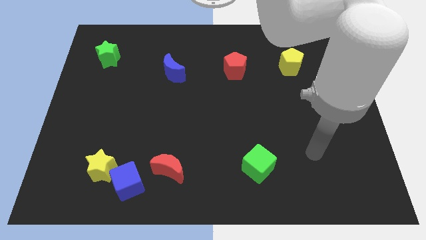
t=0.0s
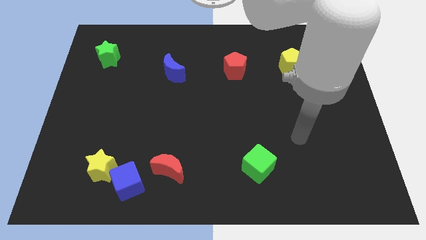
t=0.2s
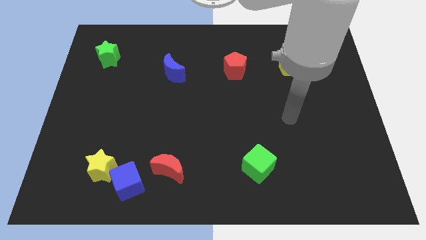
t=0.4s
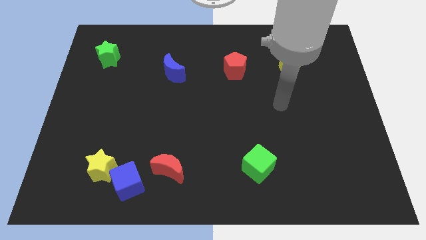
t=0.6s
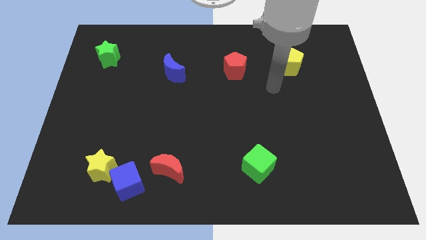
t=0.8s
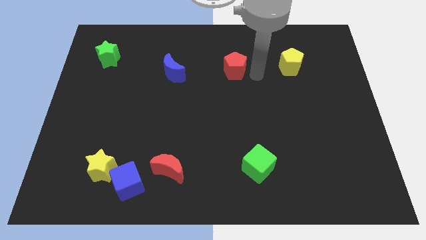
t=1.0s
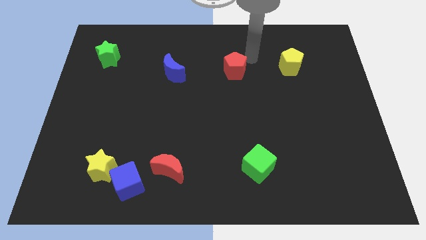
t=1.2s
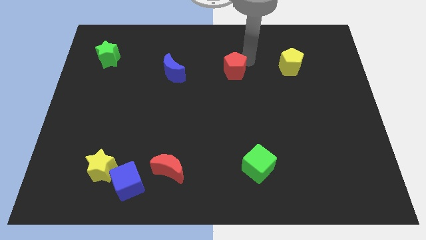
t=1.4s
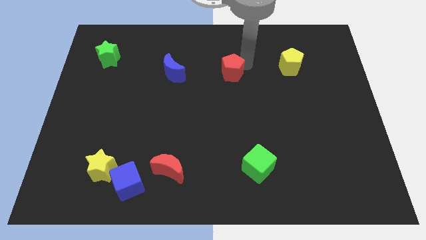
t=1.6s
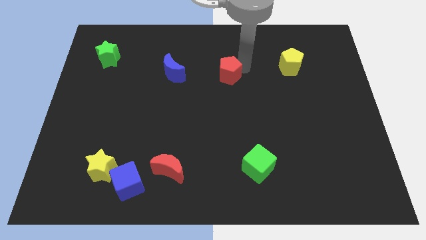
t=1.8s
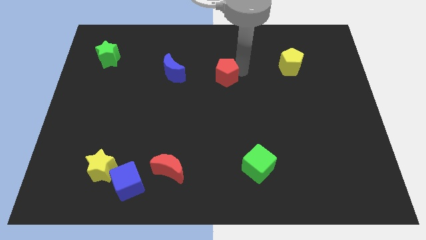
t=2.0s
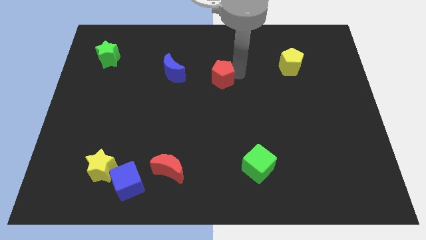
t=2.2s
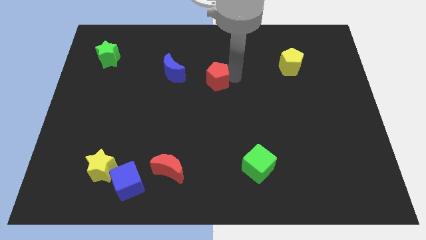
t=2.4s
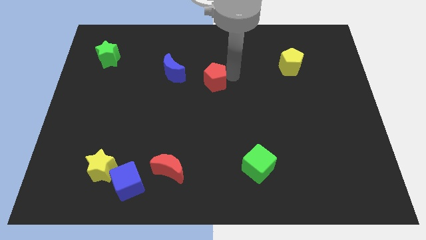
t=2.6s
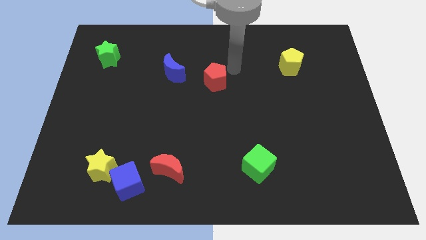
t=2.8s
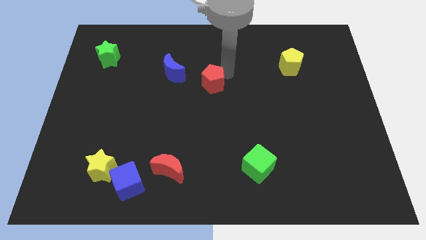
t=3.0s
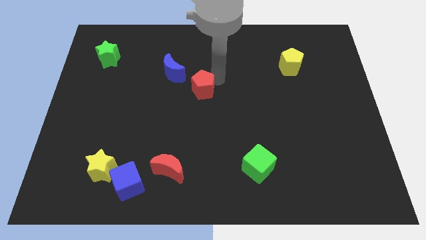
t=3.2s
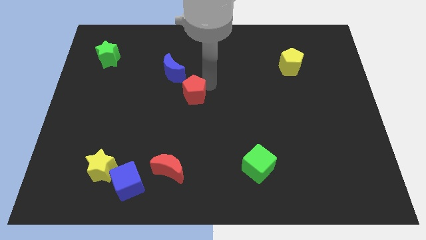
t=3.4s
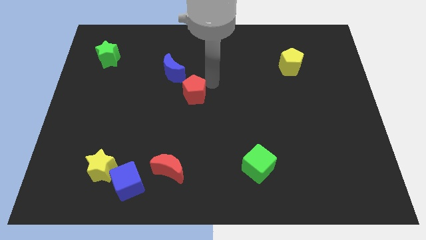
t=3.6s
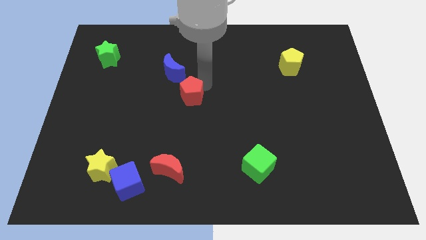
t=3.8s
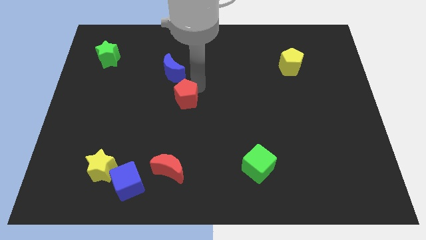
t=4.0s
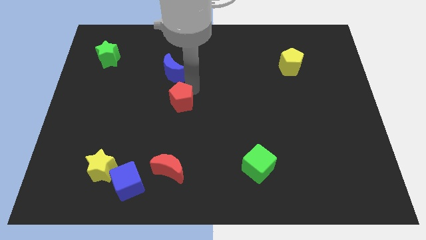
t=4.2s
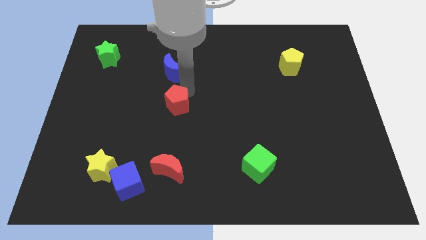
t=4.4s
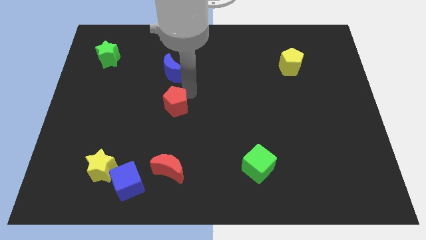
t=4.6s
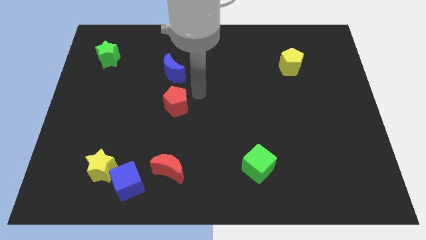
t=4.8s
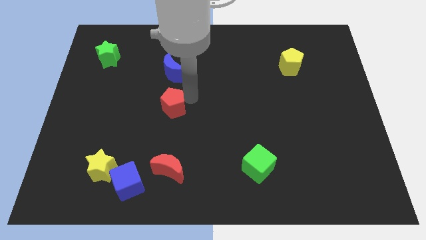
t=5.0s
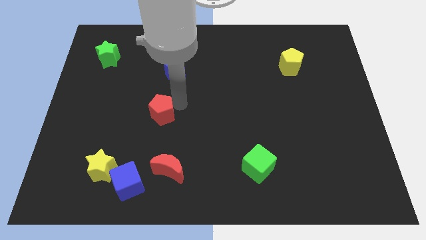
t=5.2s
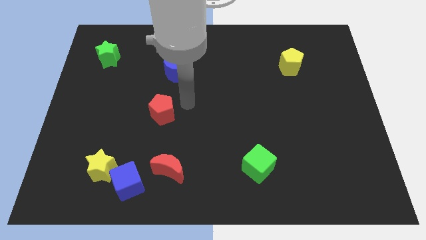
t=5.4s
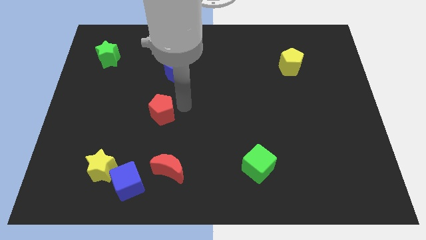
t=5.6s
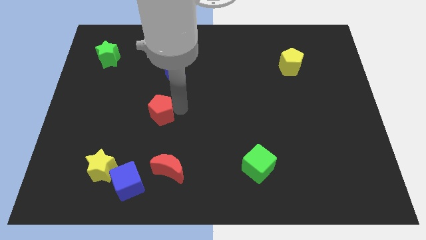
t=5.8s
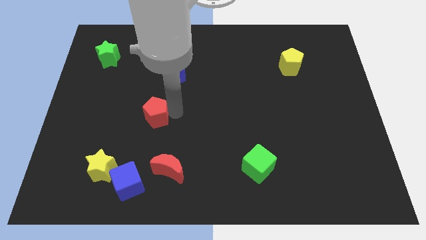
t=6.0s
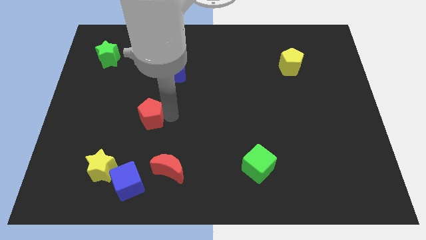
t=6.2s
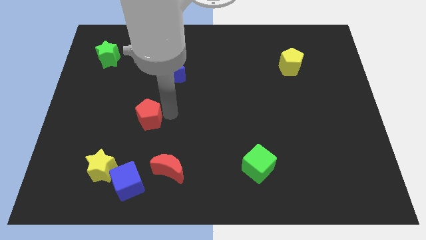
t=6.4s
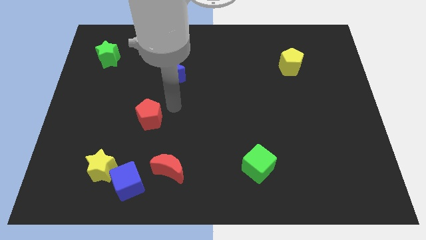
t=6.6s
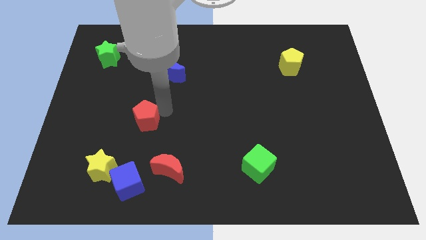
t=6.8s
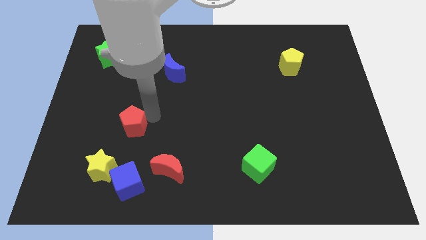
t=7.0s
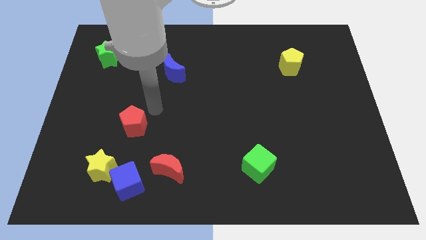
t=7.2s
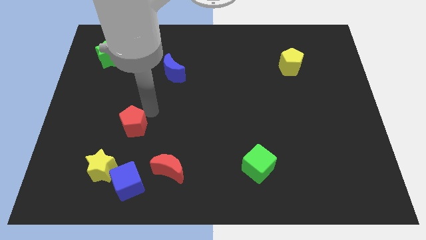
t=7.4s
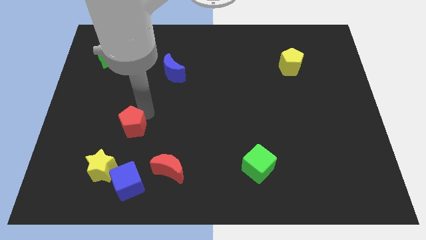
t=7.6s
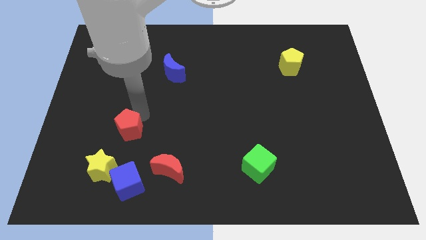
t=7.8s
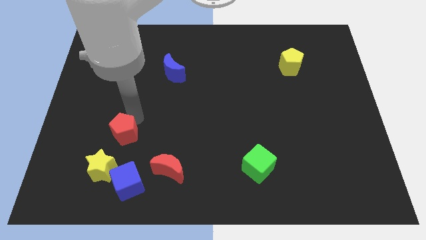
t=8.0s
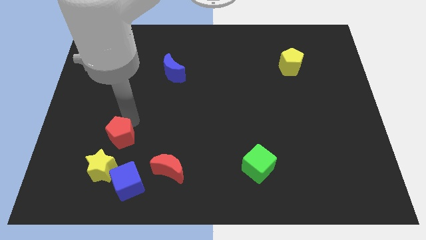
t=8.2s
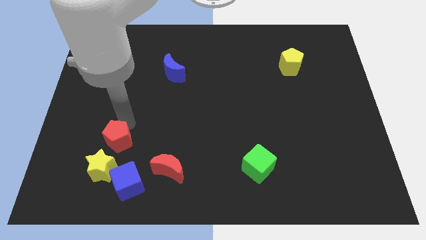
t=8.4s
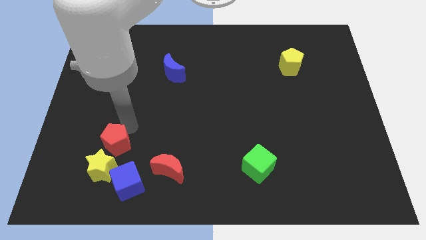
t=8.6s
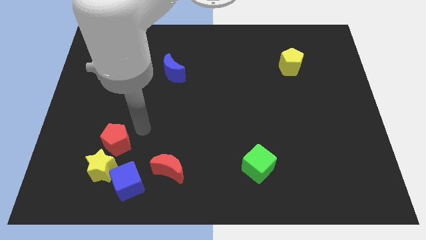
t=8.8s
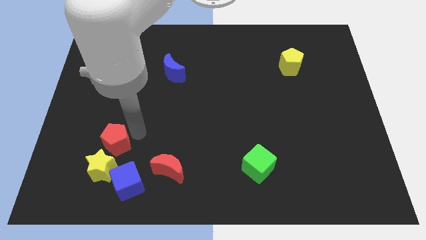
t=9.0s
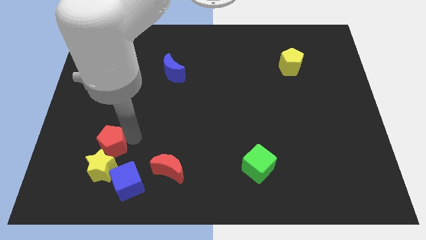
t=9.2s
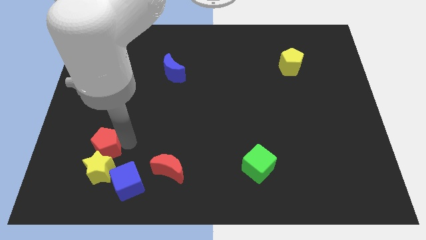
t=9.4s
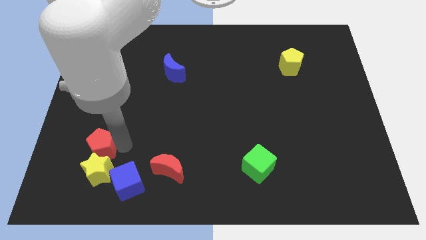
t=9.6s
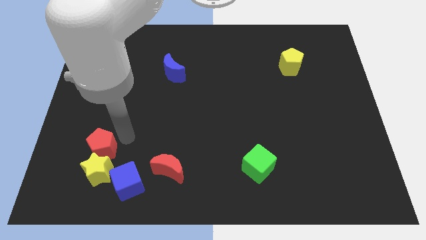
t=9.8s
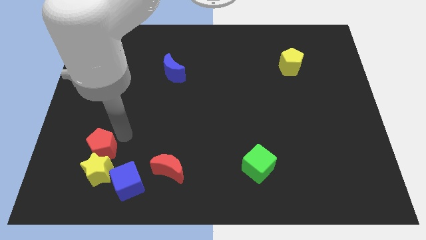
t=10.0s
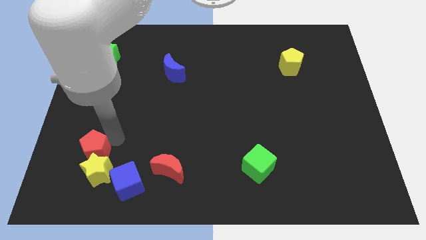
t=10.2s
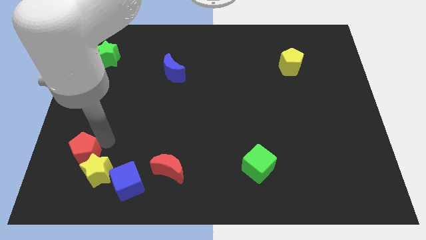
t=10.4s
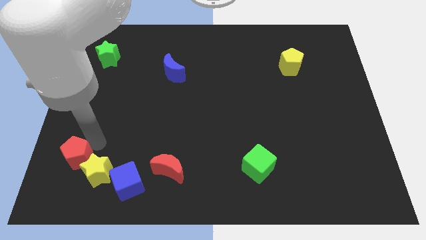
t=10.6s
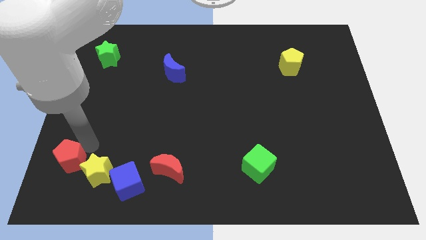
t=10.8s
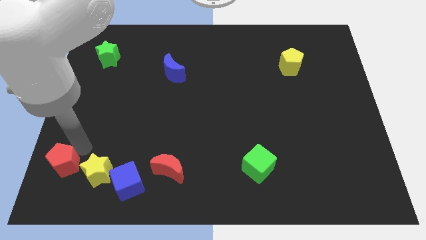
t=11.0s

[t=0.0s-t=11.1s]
move the red pentagon to the lower left corner
